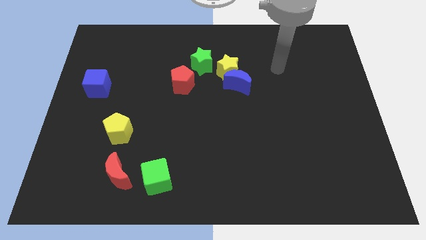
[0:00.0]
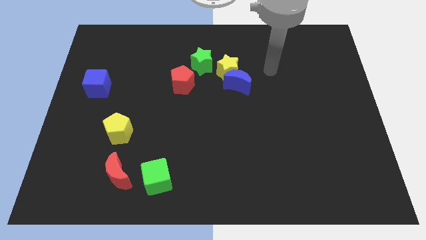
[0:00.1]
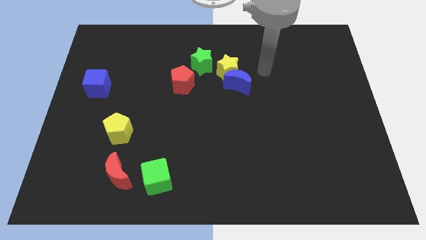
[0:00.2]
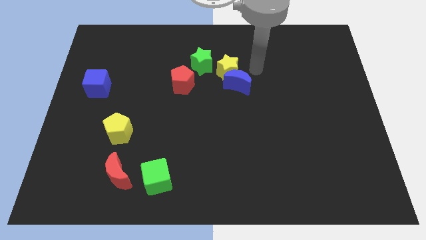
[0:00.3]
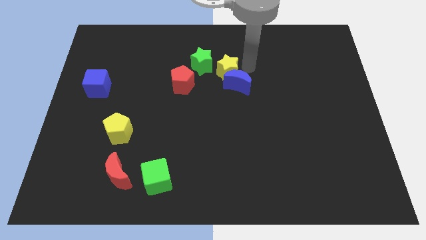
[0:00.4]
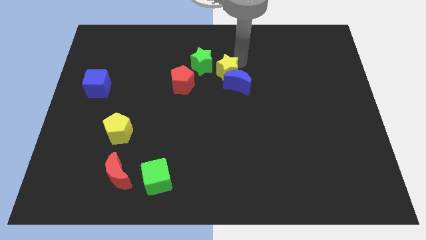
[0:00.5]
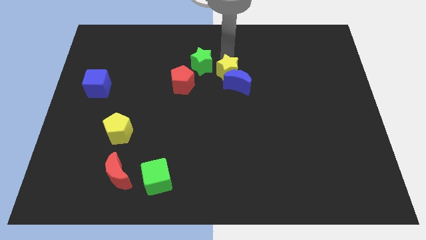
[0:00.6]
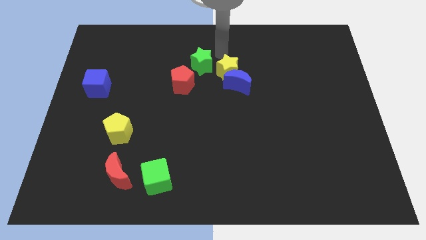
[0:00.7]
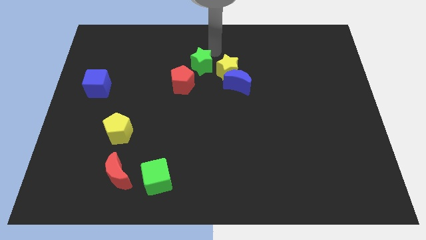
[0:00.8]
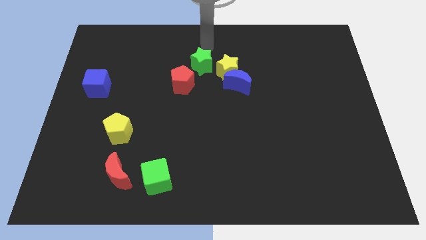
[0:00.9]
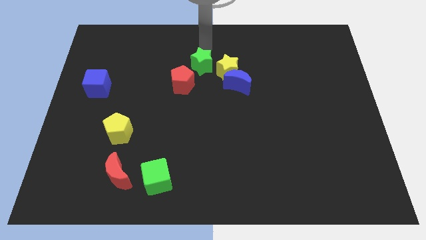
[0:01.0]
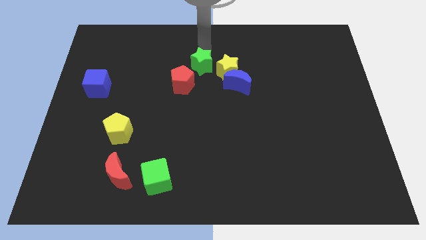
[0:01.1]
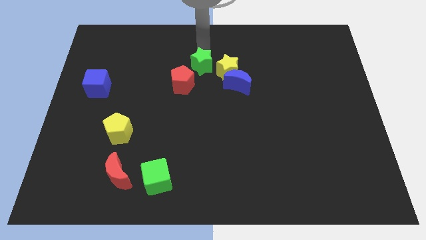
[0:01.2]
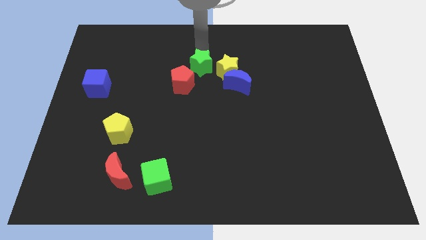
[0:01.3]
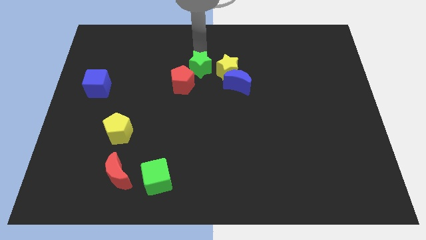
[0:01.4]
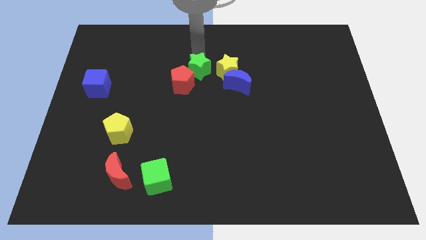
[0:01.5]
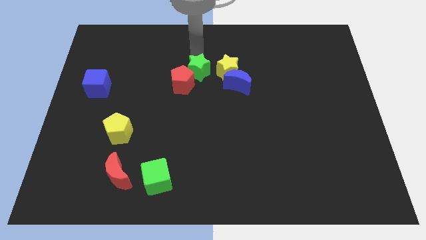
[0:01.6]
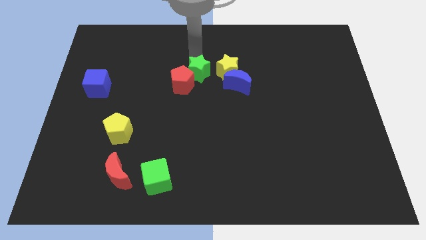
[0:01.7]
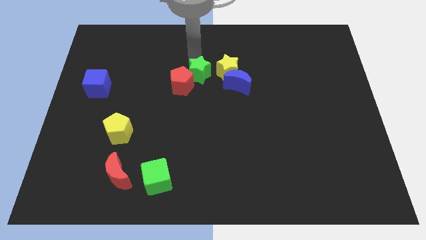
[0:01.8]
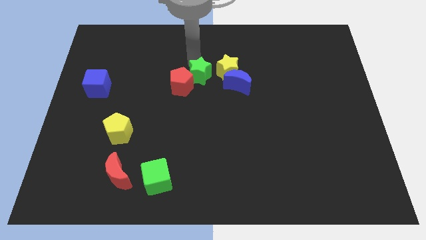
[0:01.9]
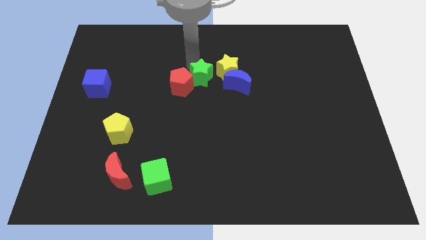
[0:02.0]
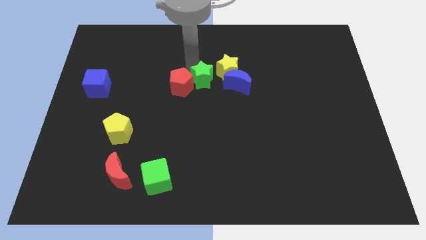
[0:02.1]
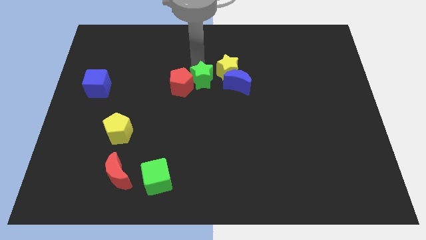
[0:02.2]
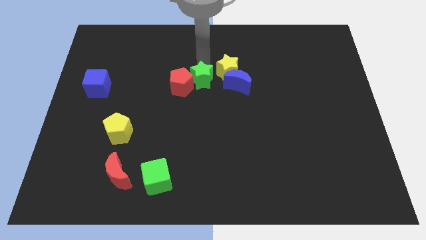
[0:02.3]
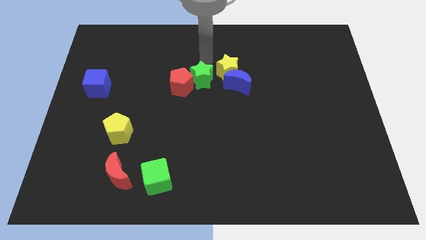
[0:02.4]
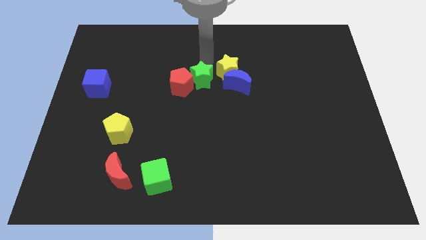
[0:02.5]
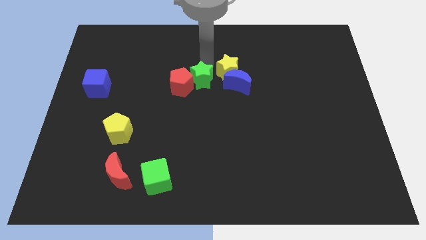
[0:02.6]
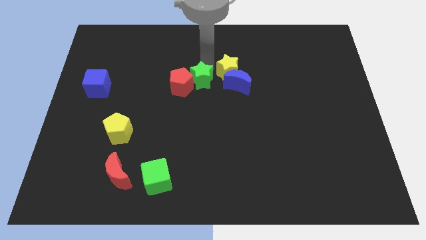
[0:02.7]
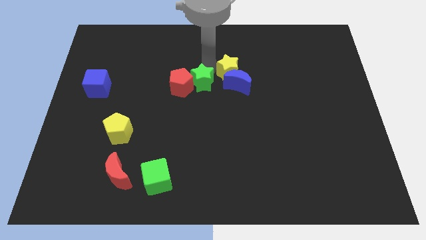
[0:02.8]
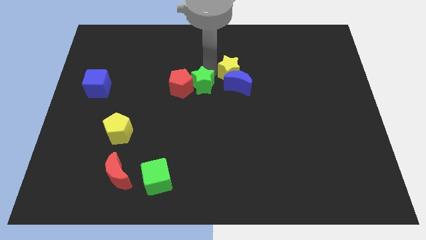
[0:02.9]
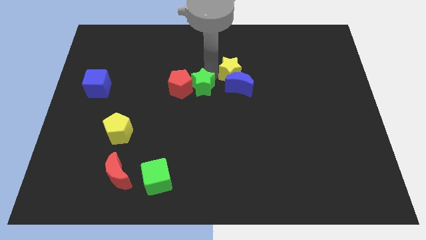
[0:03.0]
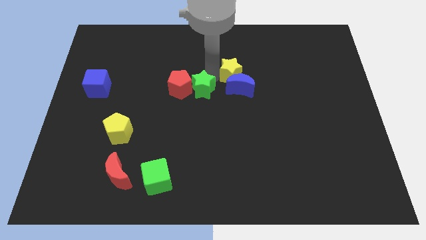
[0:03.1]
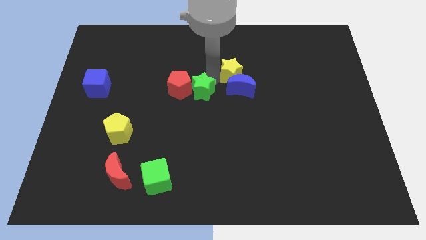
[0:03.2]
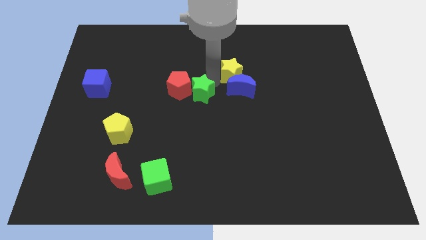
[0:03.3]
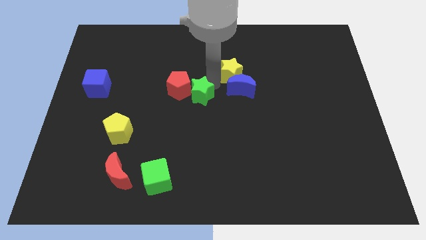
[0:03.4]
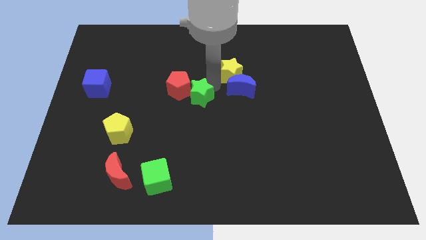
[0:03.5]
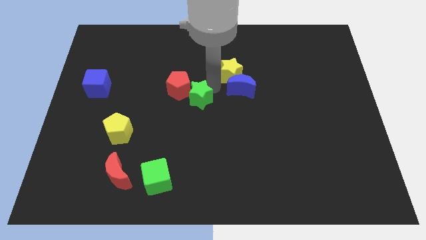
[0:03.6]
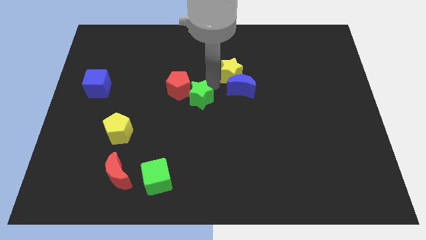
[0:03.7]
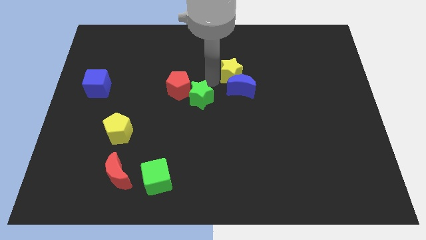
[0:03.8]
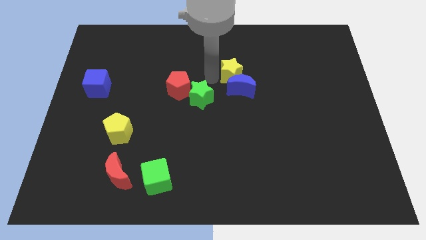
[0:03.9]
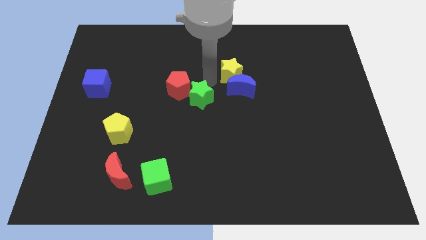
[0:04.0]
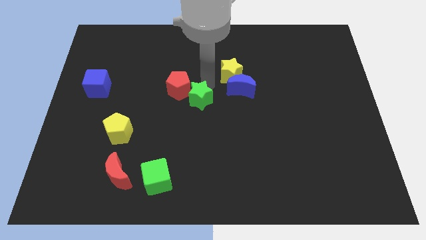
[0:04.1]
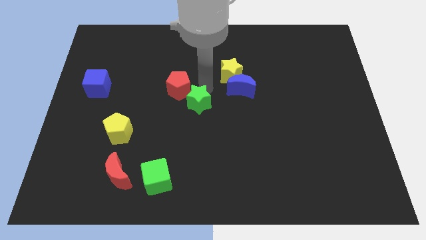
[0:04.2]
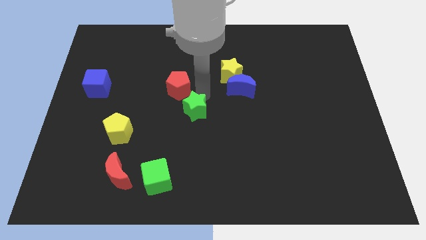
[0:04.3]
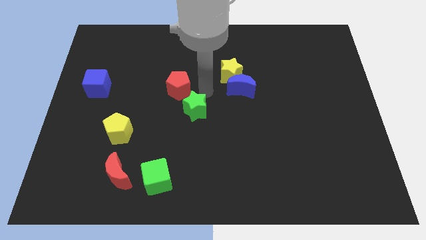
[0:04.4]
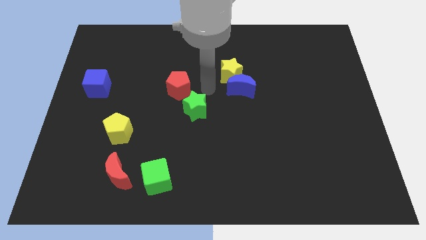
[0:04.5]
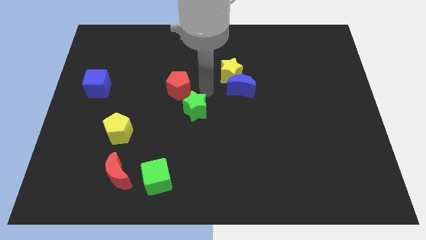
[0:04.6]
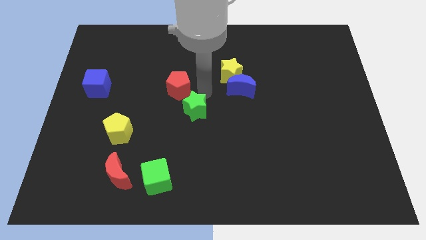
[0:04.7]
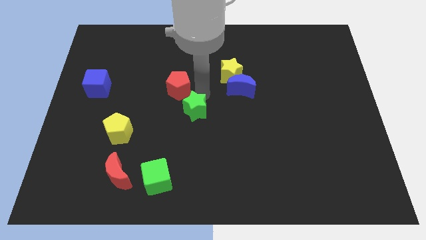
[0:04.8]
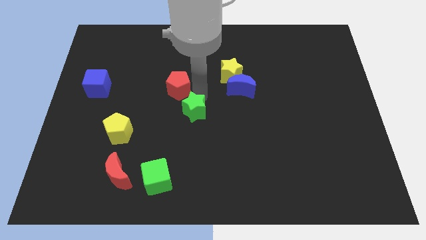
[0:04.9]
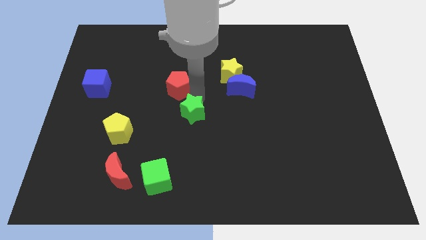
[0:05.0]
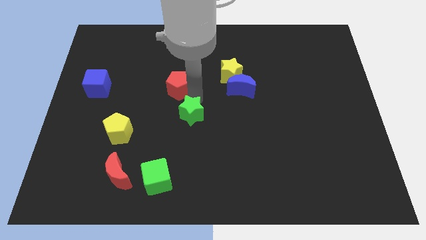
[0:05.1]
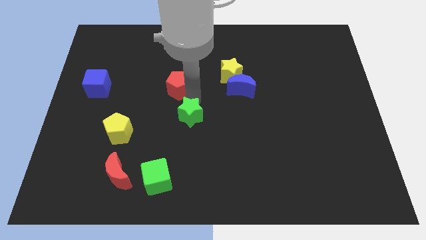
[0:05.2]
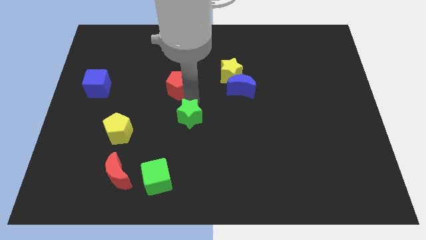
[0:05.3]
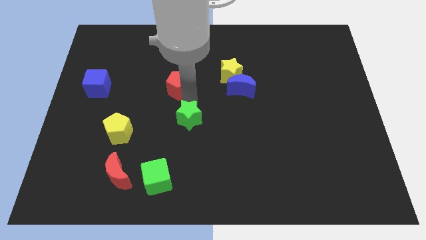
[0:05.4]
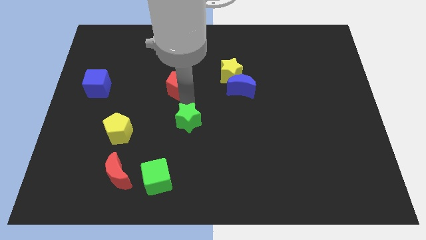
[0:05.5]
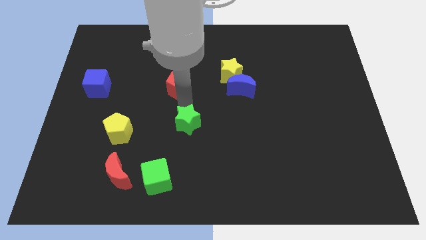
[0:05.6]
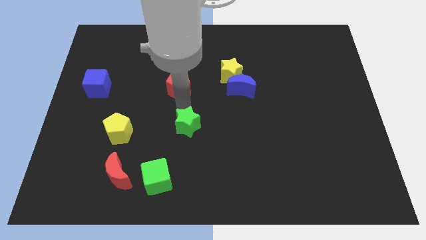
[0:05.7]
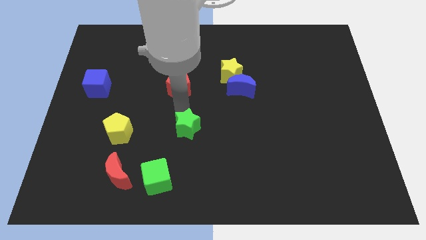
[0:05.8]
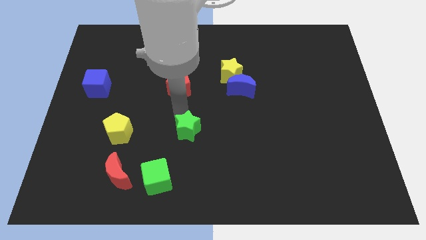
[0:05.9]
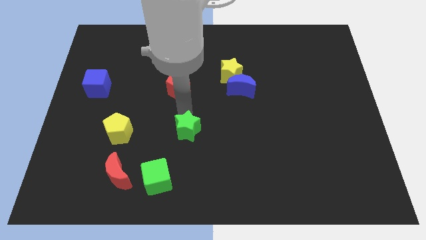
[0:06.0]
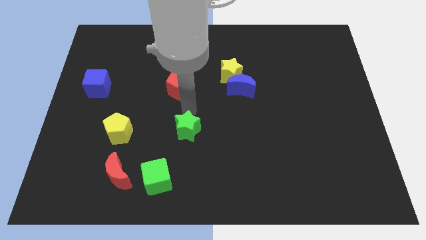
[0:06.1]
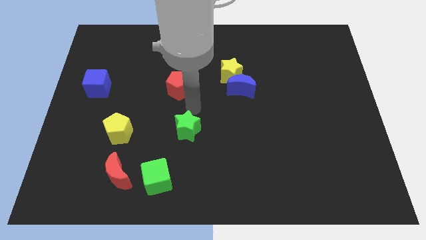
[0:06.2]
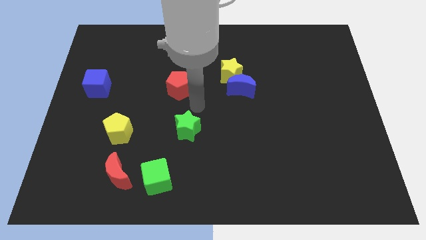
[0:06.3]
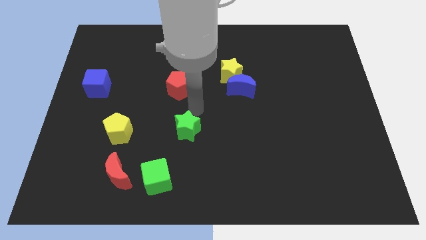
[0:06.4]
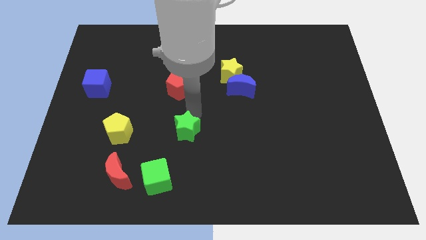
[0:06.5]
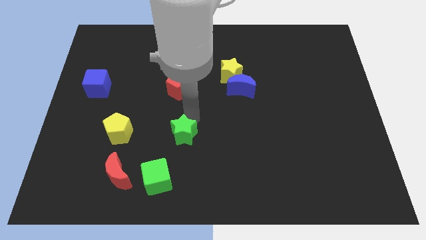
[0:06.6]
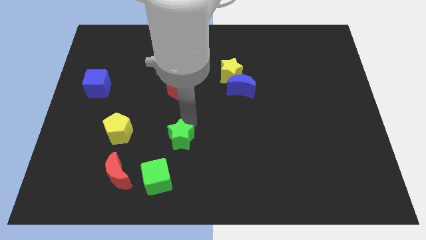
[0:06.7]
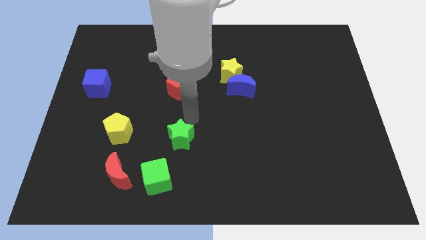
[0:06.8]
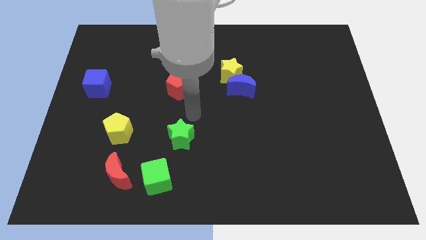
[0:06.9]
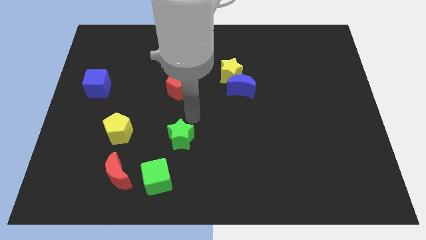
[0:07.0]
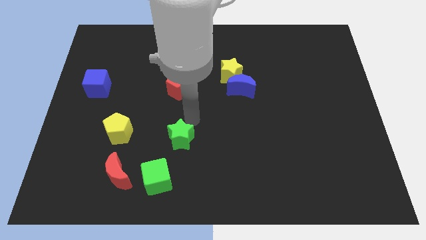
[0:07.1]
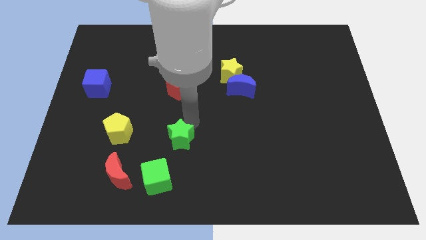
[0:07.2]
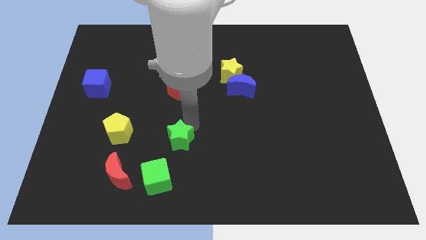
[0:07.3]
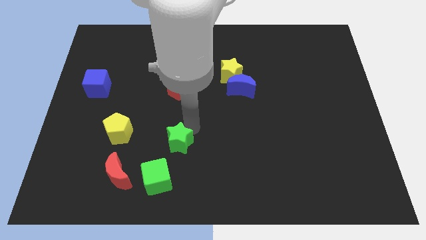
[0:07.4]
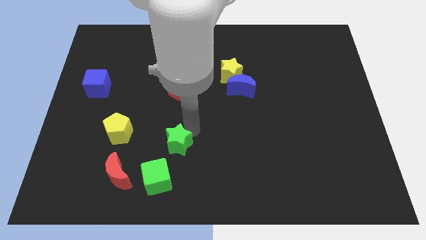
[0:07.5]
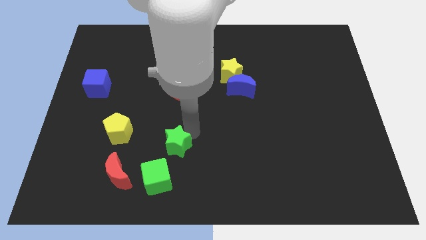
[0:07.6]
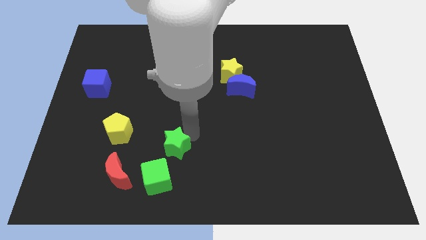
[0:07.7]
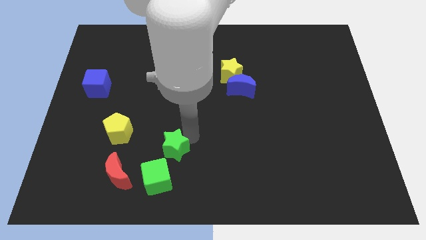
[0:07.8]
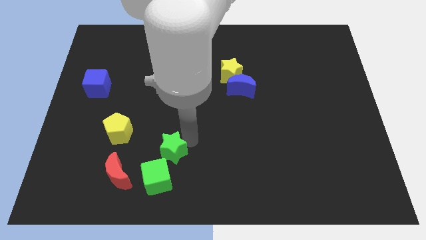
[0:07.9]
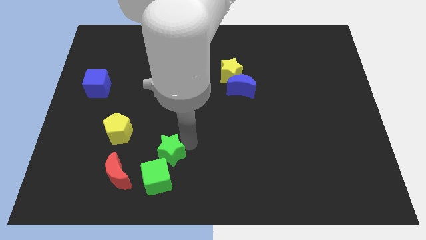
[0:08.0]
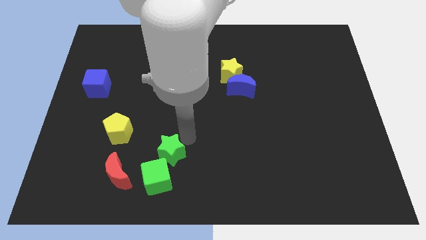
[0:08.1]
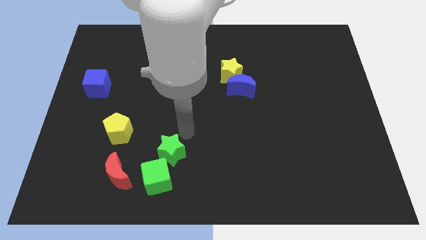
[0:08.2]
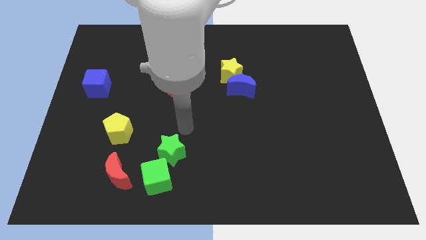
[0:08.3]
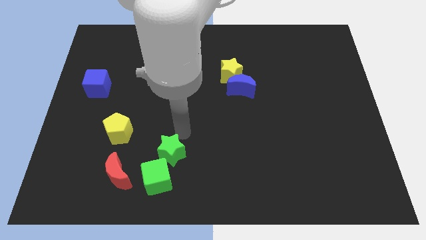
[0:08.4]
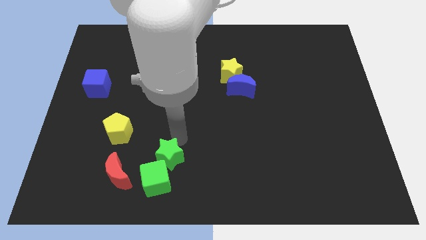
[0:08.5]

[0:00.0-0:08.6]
slide the green star close to the green cube
